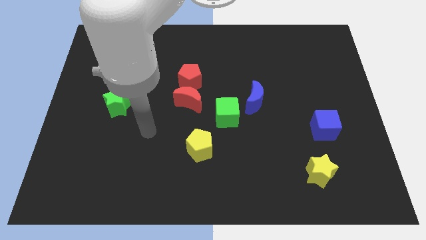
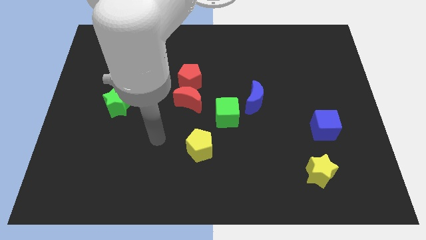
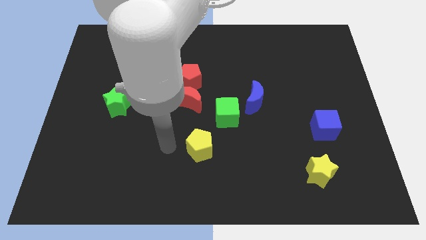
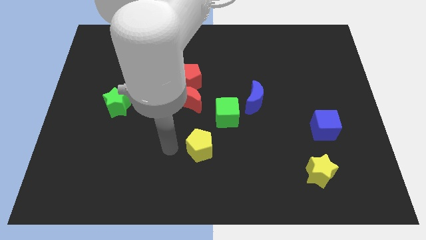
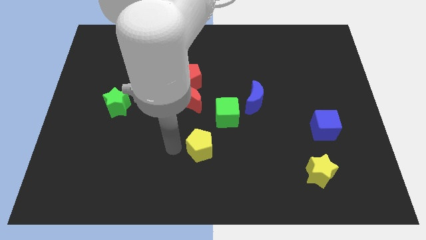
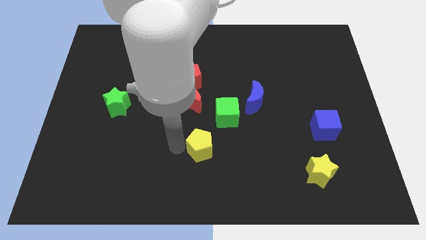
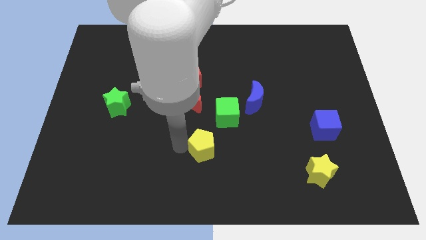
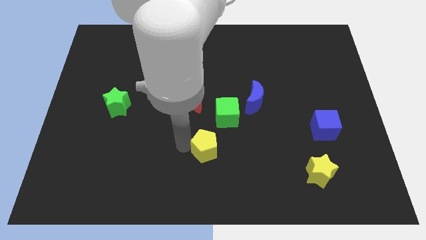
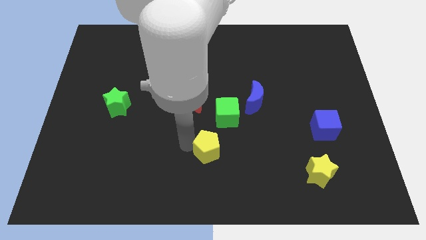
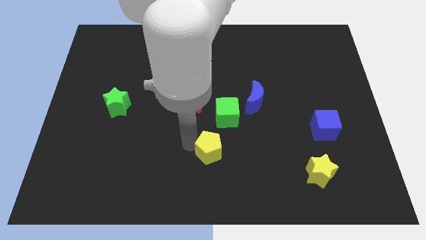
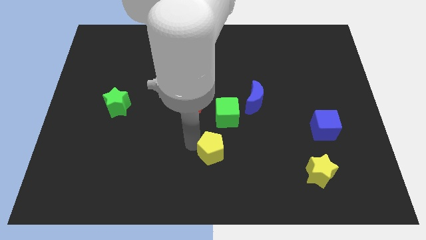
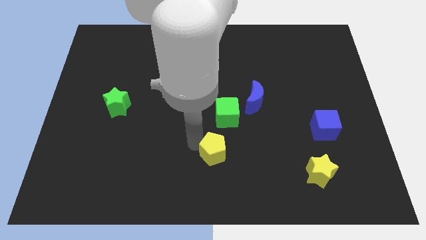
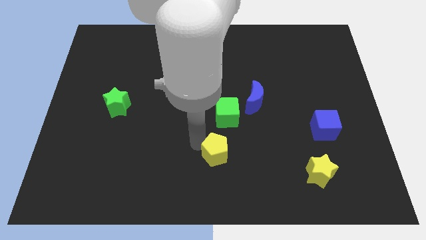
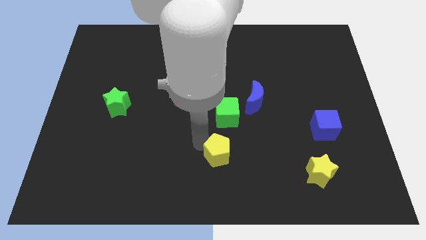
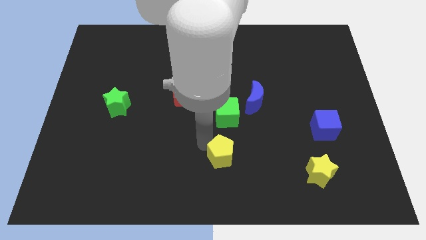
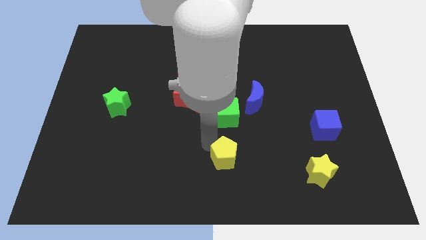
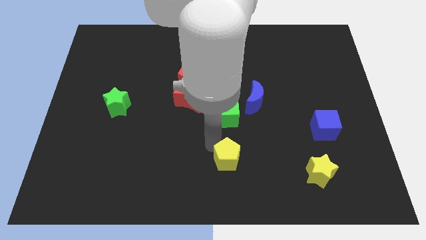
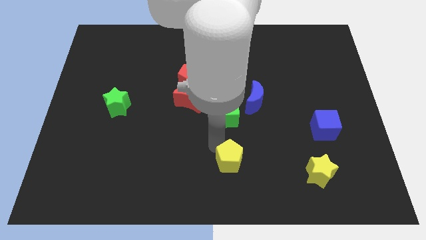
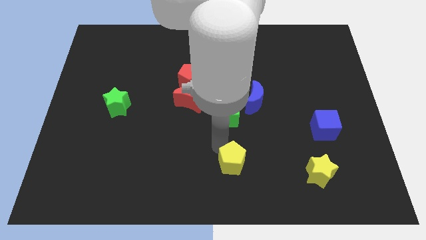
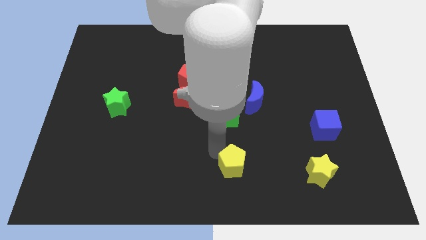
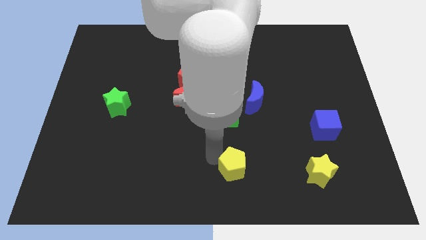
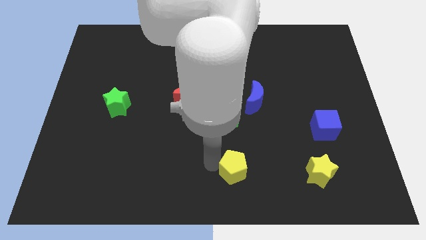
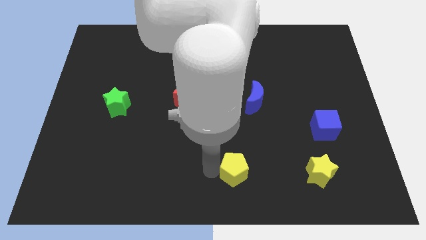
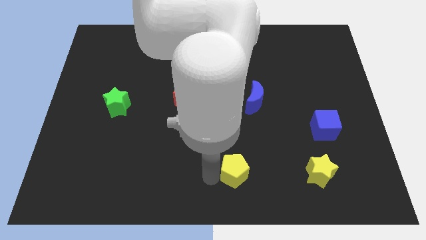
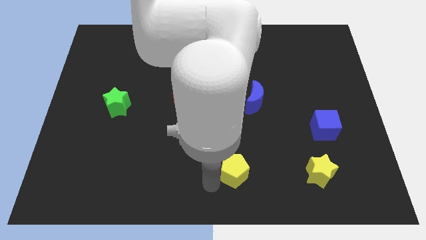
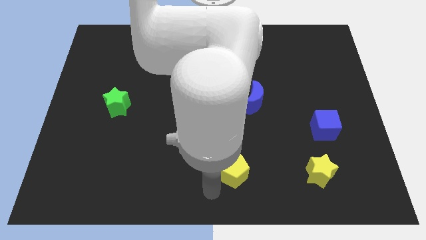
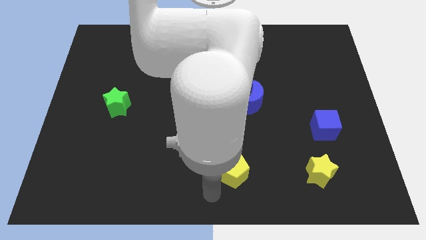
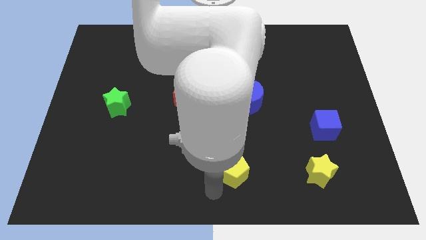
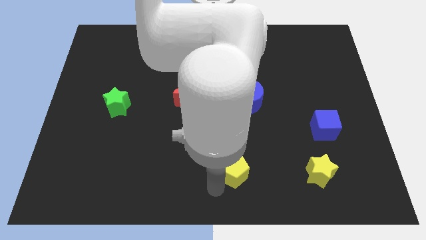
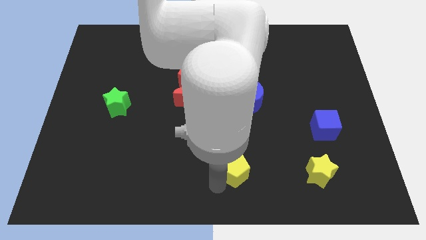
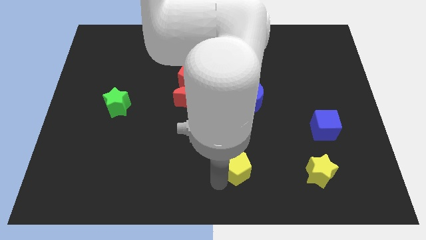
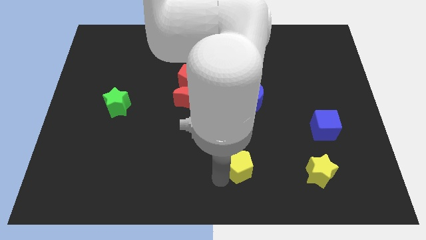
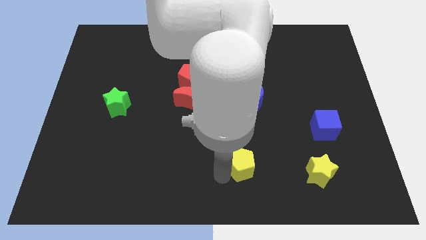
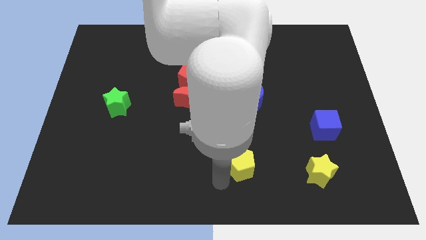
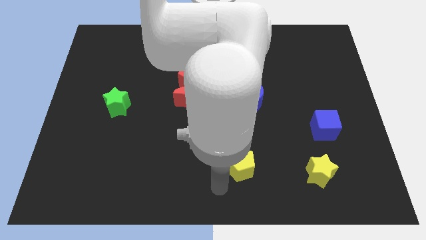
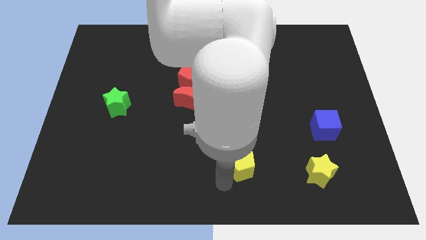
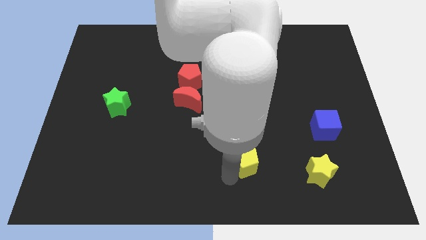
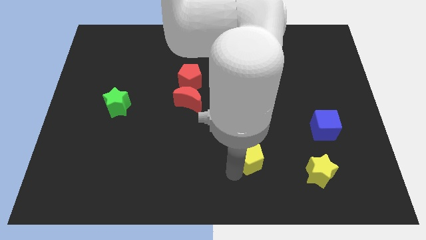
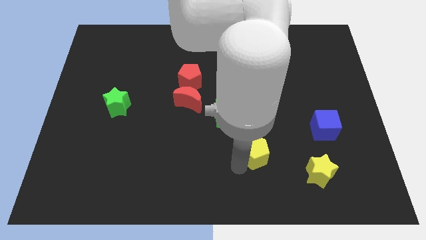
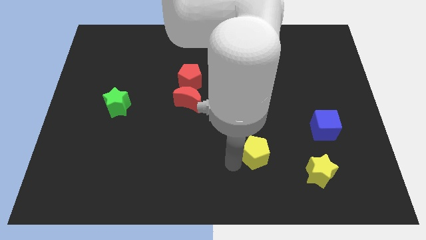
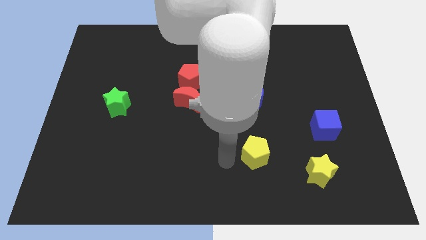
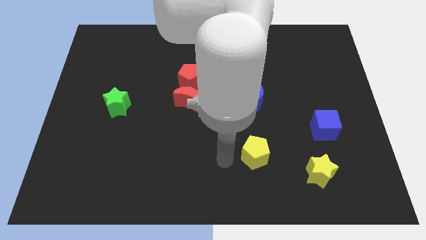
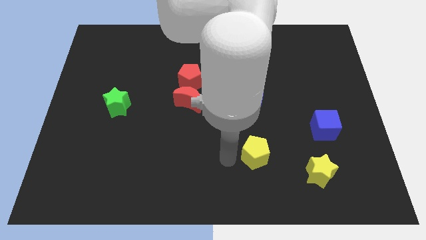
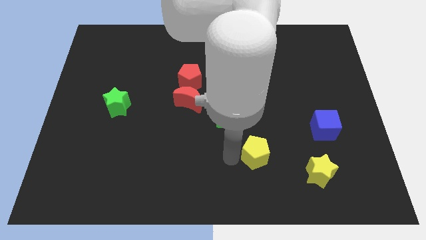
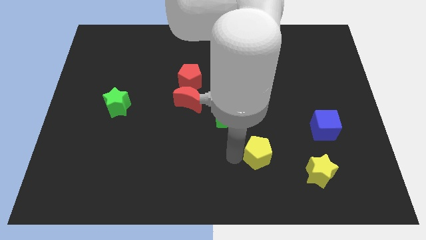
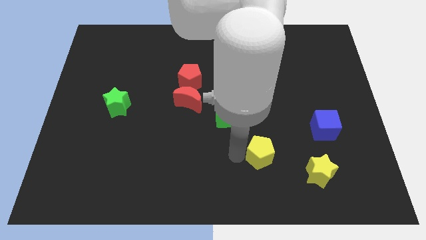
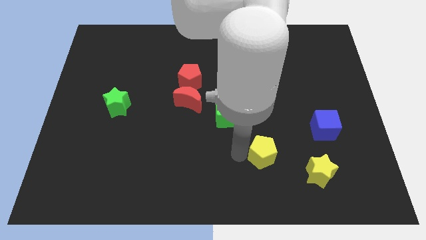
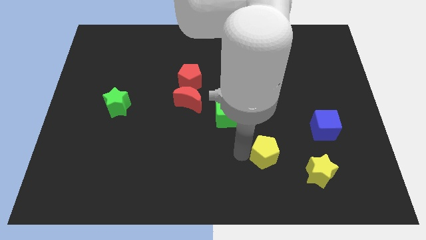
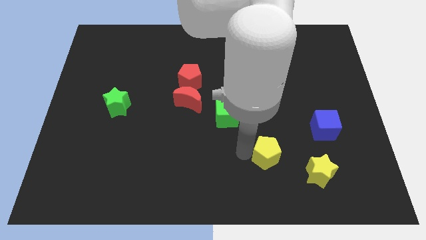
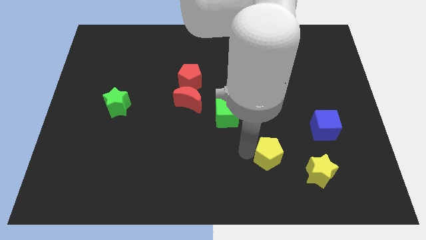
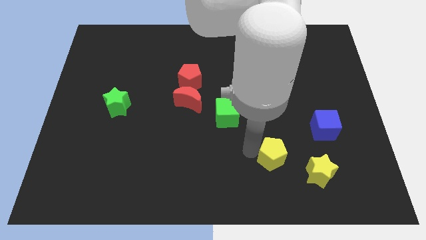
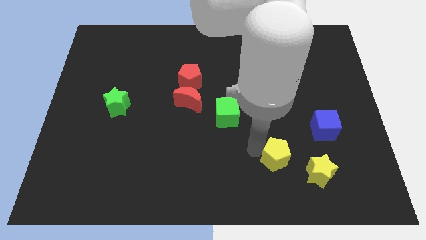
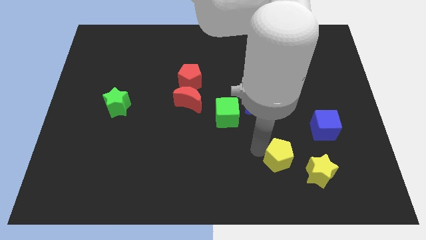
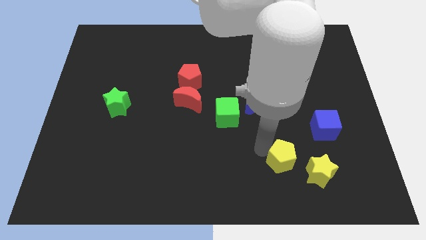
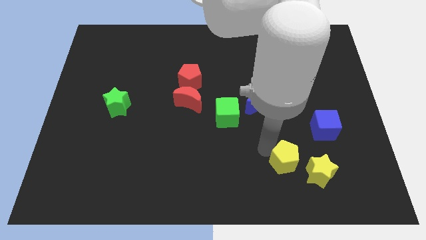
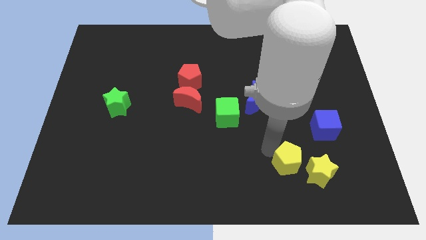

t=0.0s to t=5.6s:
put the yellow pentagon to the bottom left side of the blue cube

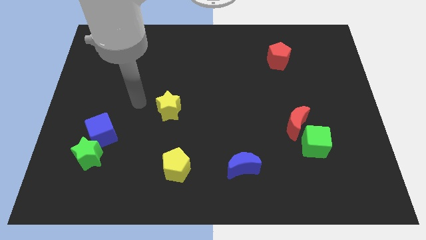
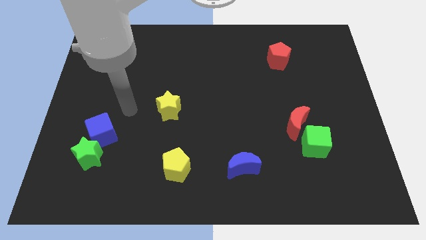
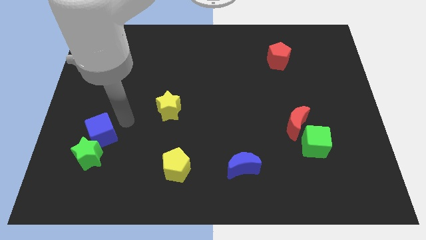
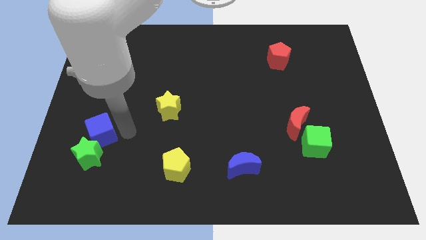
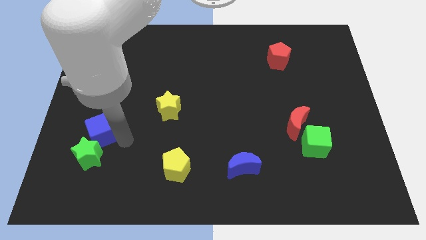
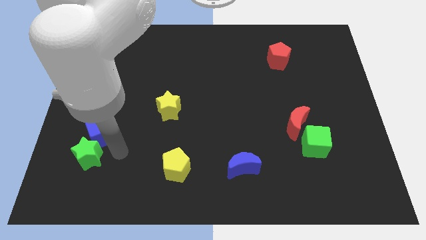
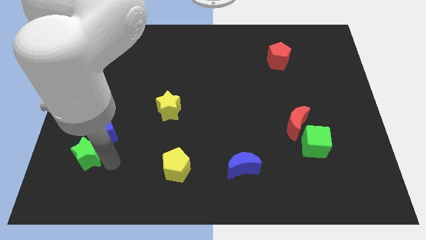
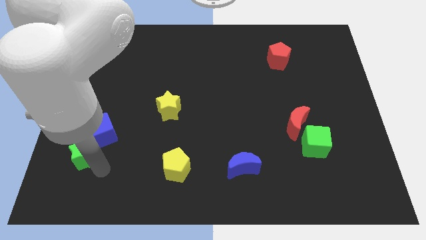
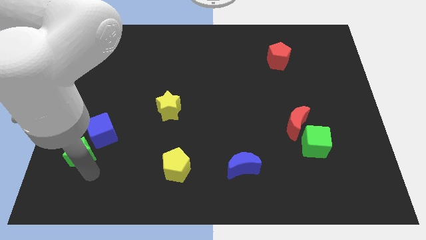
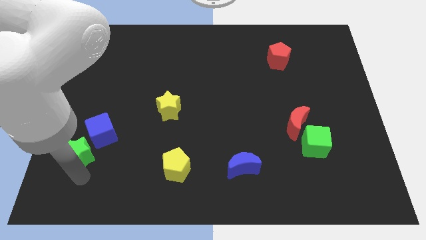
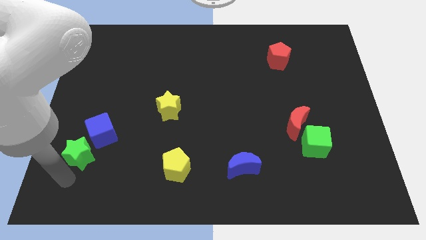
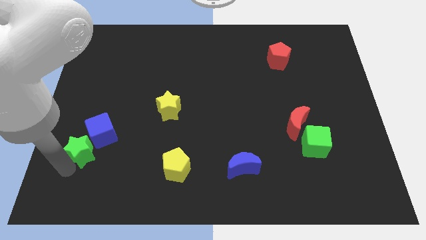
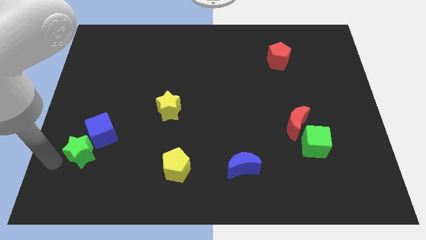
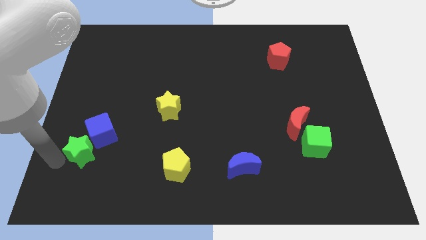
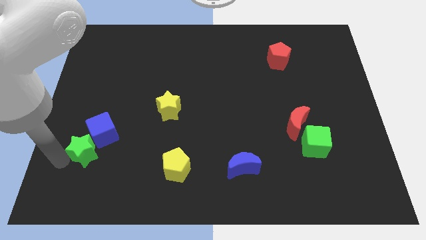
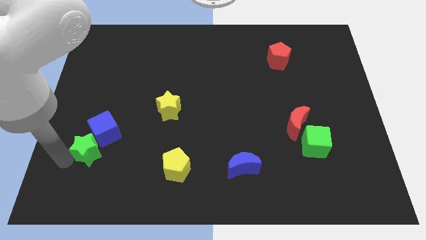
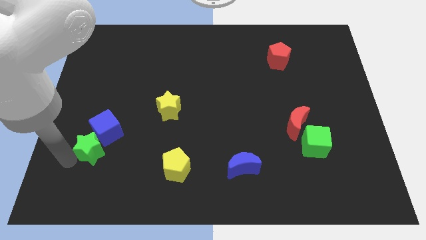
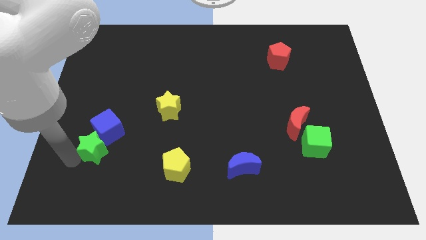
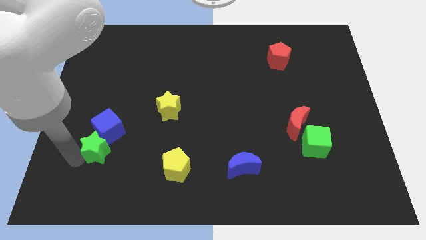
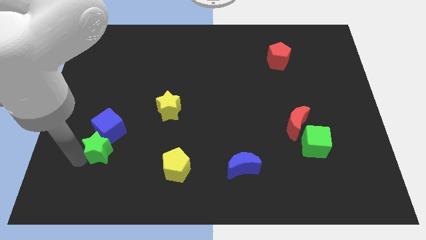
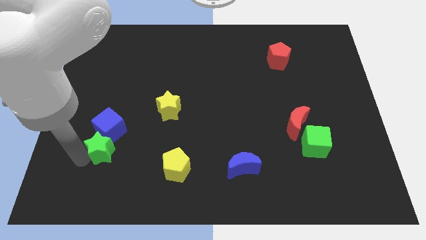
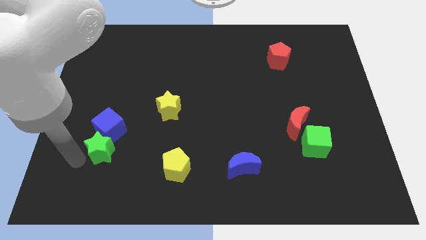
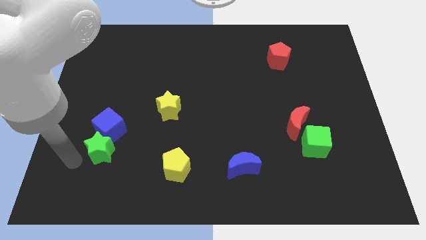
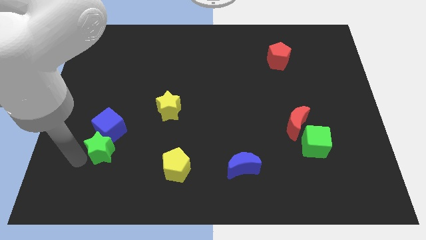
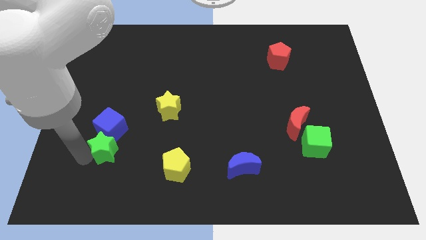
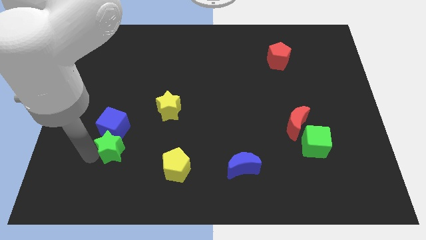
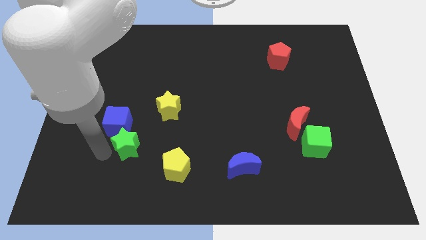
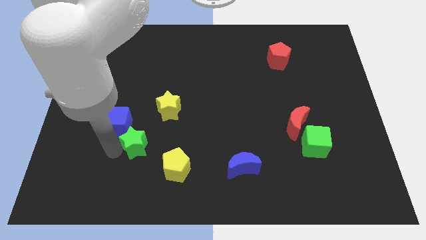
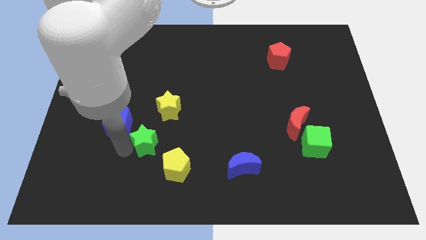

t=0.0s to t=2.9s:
put the green star to the right of the blue cube
